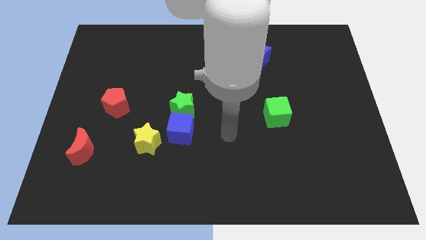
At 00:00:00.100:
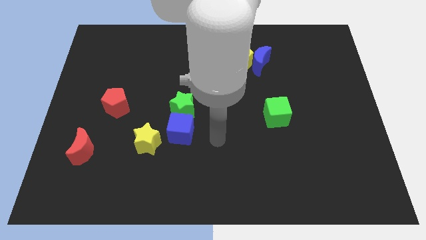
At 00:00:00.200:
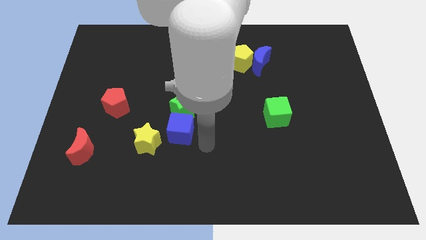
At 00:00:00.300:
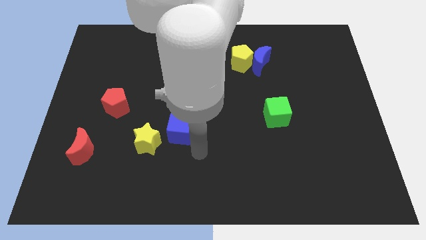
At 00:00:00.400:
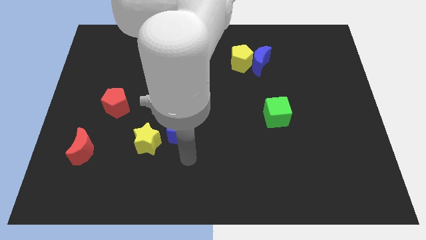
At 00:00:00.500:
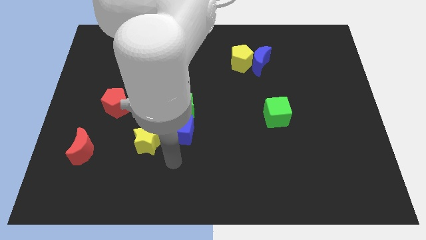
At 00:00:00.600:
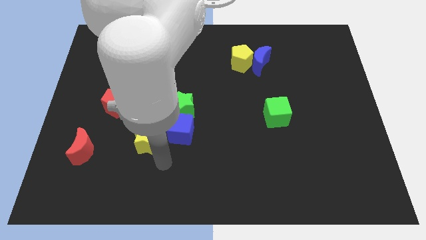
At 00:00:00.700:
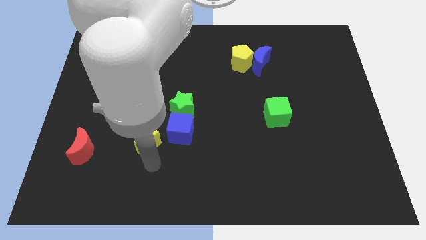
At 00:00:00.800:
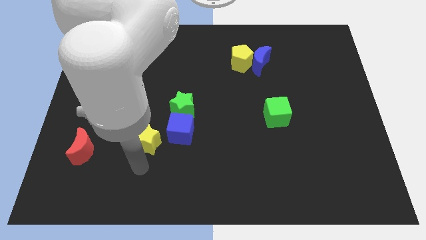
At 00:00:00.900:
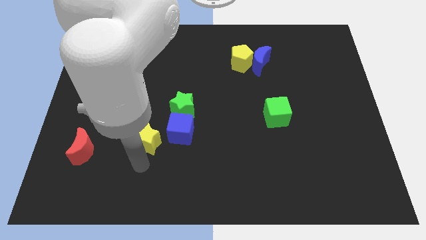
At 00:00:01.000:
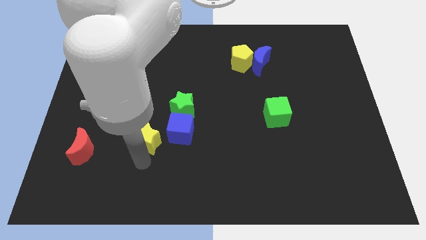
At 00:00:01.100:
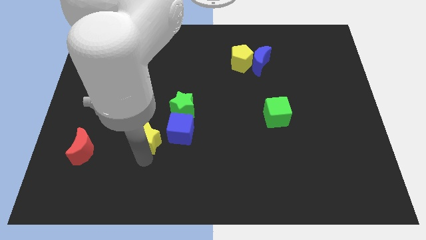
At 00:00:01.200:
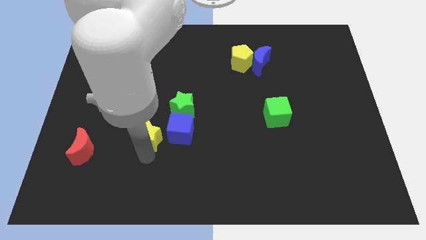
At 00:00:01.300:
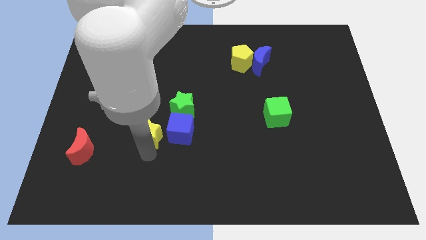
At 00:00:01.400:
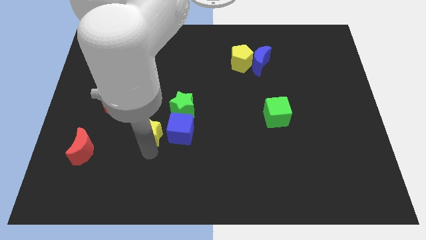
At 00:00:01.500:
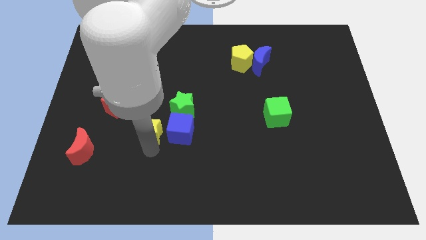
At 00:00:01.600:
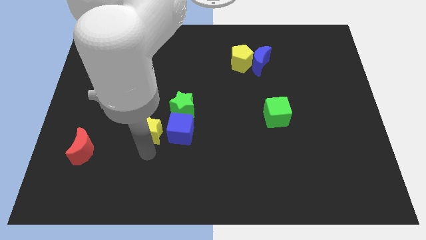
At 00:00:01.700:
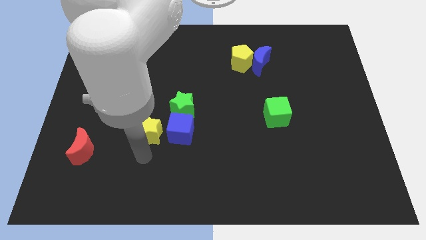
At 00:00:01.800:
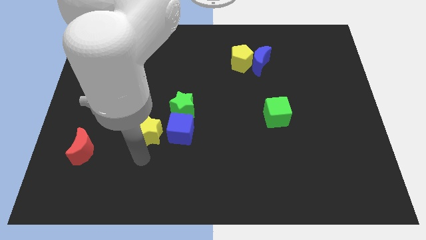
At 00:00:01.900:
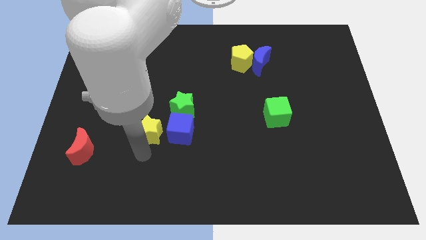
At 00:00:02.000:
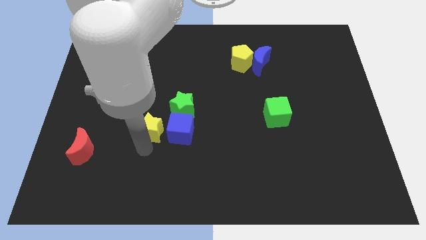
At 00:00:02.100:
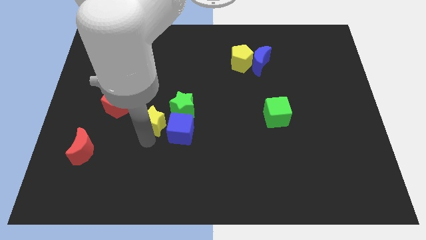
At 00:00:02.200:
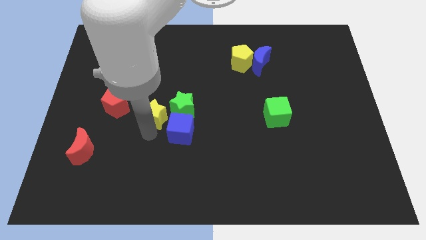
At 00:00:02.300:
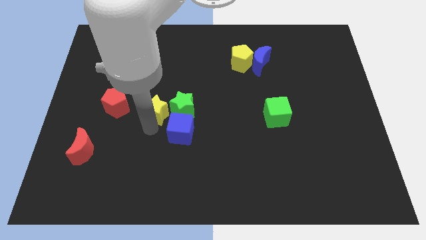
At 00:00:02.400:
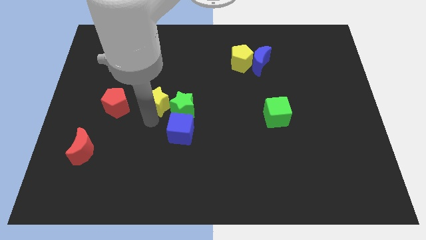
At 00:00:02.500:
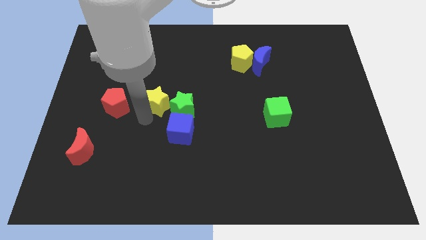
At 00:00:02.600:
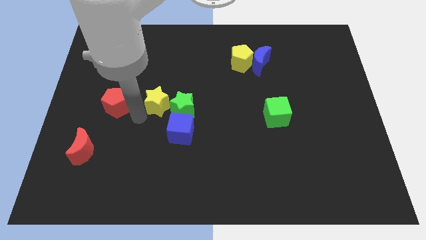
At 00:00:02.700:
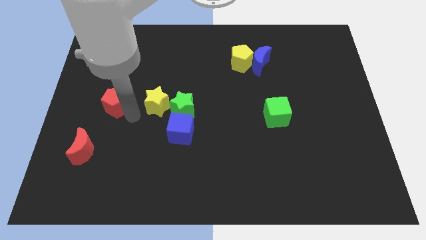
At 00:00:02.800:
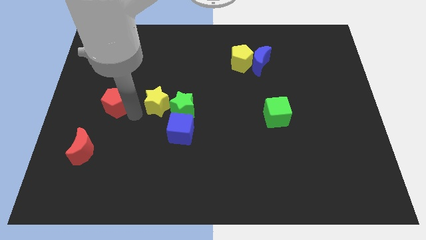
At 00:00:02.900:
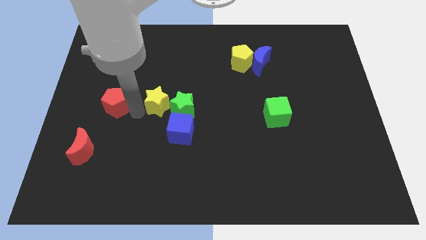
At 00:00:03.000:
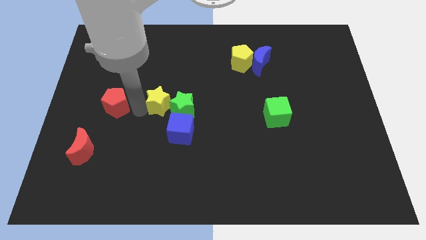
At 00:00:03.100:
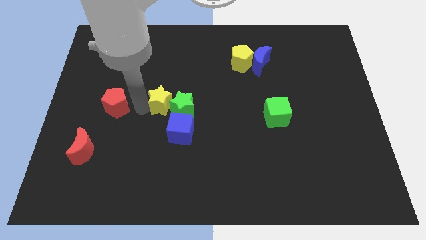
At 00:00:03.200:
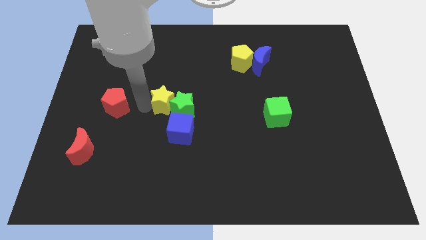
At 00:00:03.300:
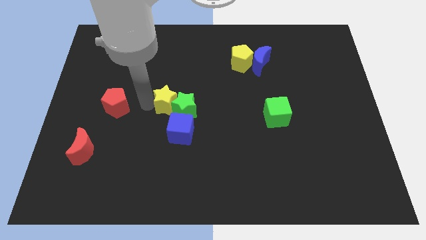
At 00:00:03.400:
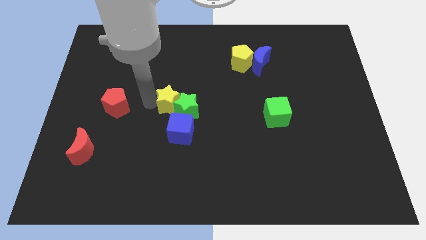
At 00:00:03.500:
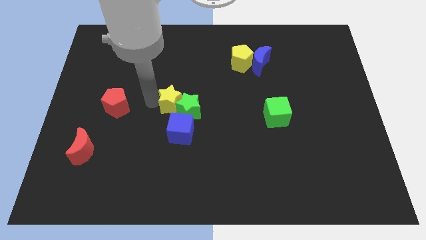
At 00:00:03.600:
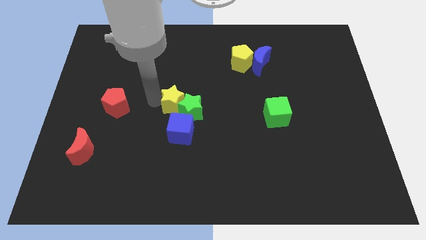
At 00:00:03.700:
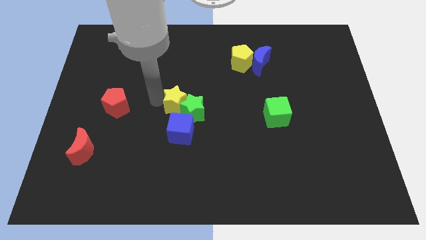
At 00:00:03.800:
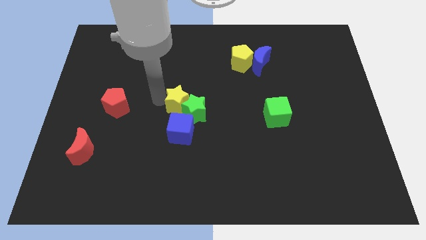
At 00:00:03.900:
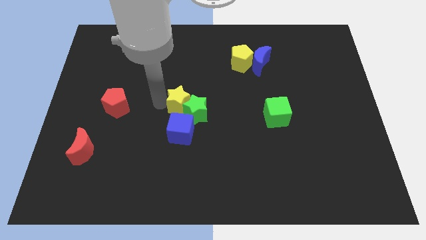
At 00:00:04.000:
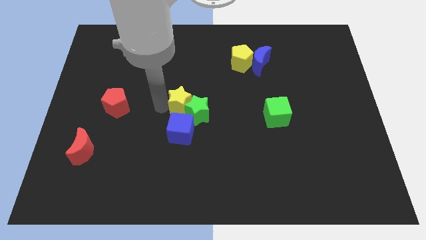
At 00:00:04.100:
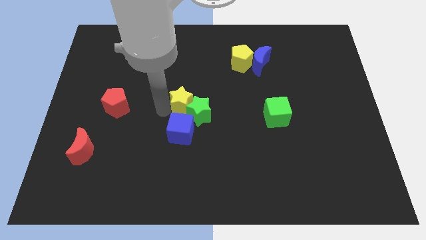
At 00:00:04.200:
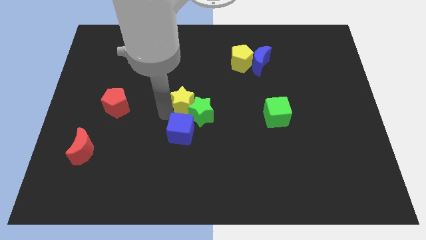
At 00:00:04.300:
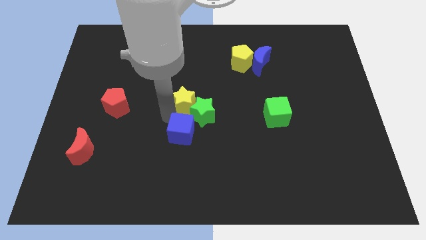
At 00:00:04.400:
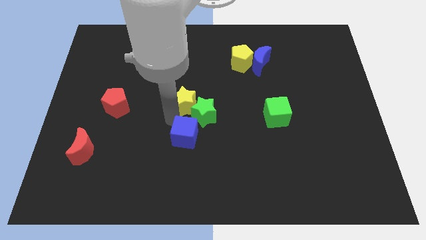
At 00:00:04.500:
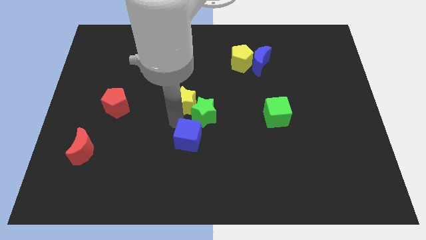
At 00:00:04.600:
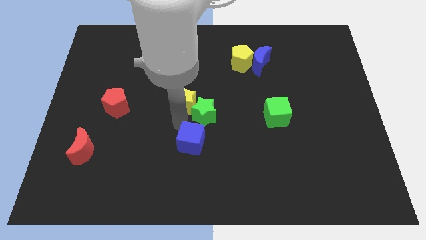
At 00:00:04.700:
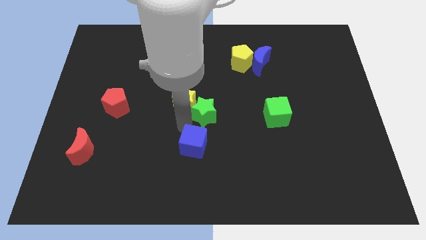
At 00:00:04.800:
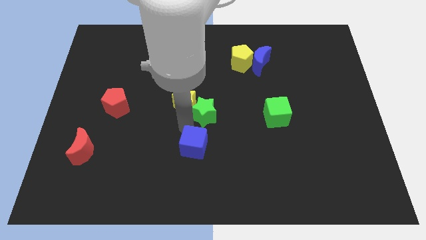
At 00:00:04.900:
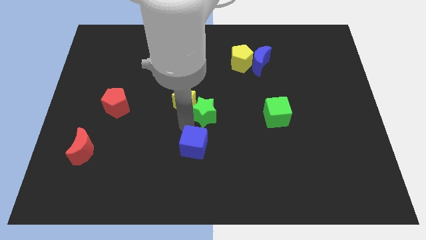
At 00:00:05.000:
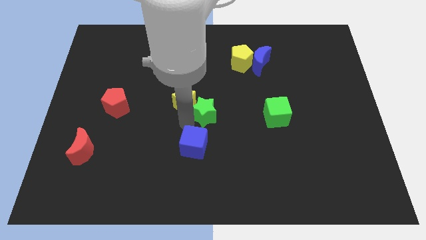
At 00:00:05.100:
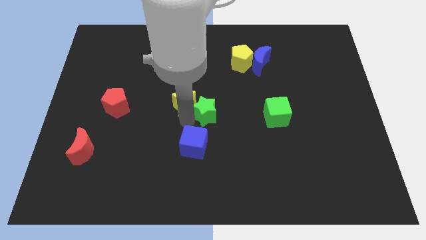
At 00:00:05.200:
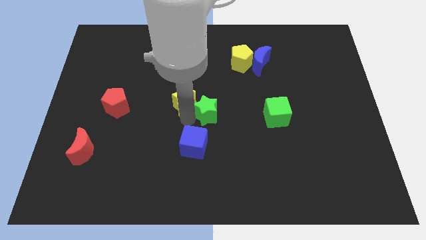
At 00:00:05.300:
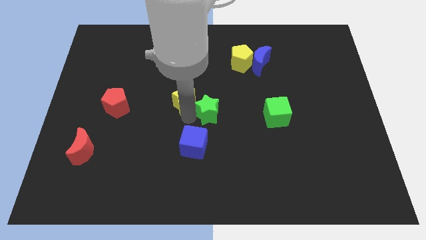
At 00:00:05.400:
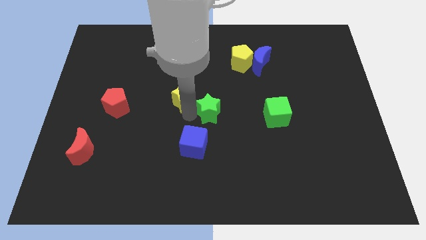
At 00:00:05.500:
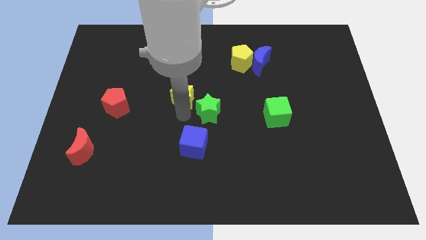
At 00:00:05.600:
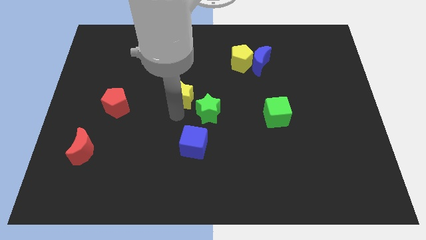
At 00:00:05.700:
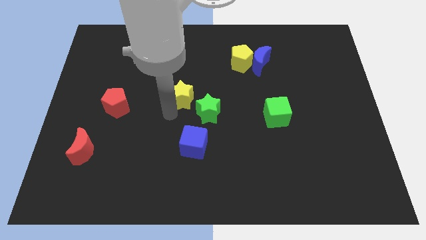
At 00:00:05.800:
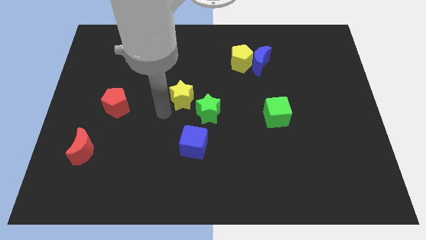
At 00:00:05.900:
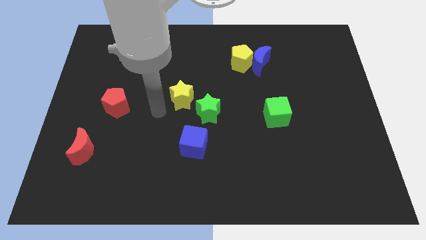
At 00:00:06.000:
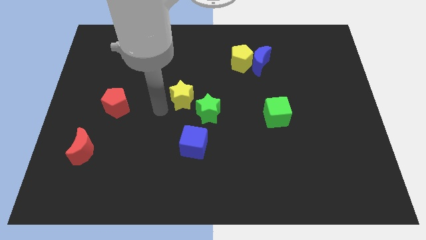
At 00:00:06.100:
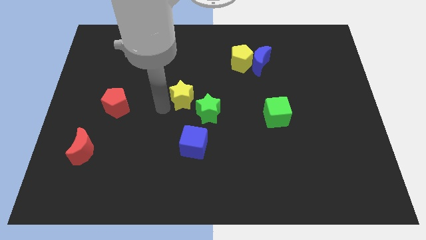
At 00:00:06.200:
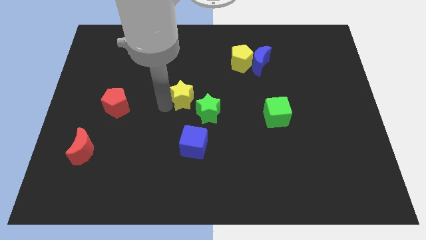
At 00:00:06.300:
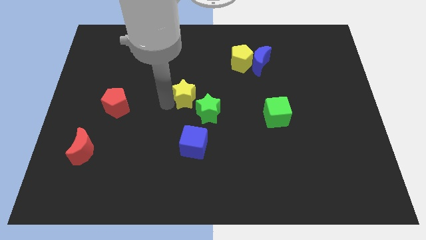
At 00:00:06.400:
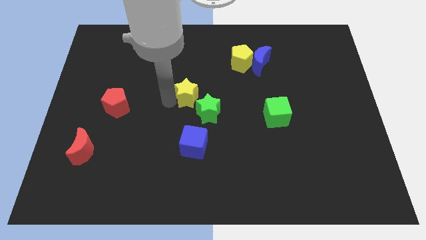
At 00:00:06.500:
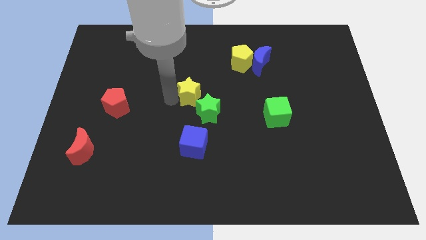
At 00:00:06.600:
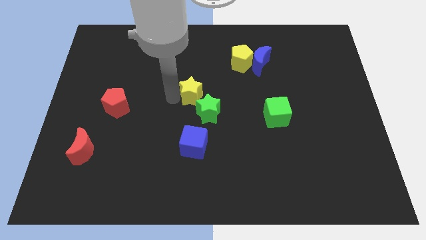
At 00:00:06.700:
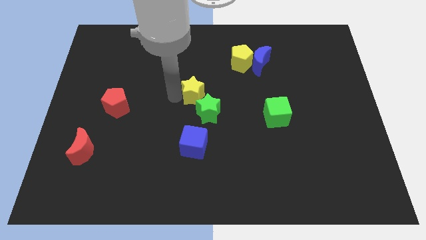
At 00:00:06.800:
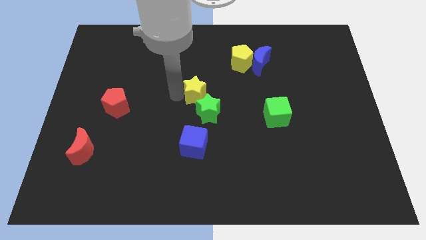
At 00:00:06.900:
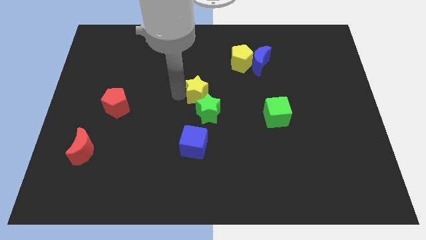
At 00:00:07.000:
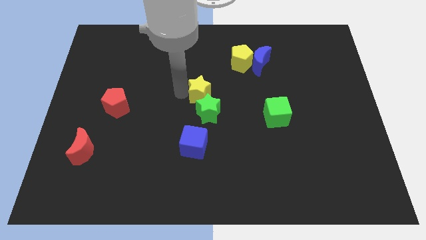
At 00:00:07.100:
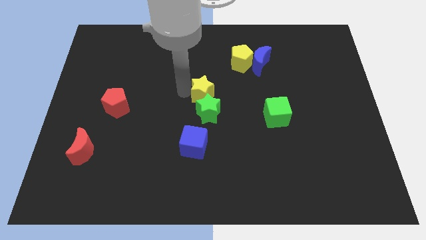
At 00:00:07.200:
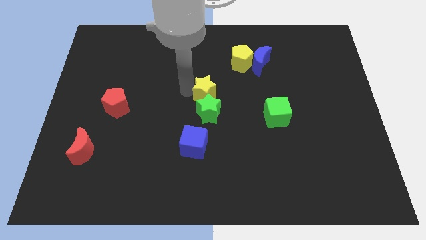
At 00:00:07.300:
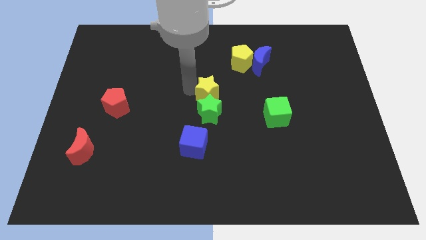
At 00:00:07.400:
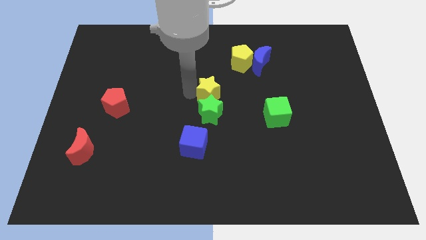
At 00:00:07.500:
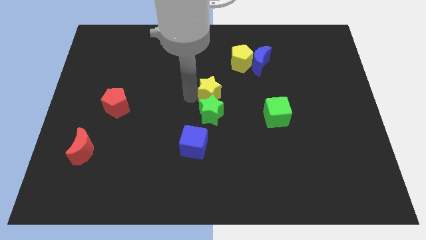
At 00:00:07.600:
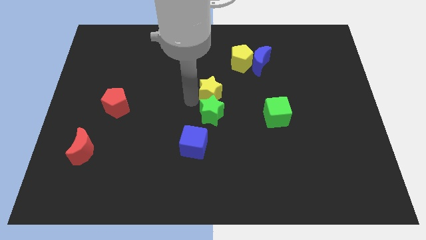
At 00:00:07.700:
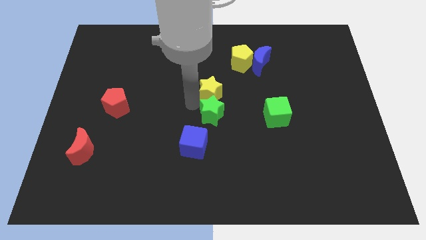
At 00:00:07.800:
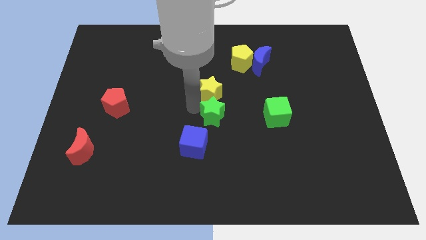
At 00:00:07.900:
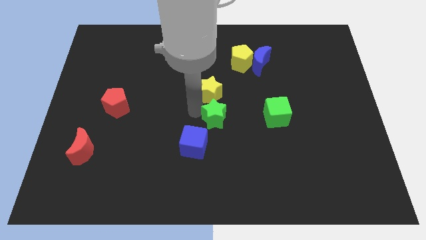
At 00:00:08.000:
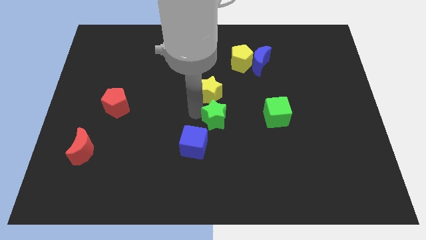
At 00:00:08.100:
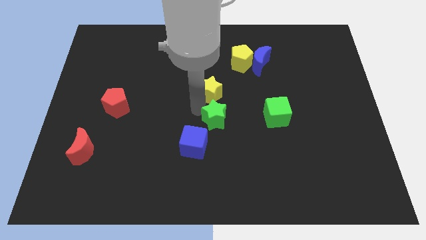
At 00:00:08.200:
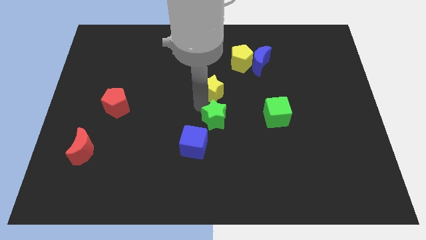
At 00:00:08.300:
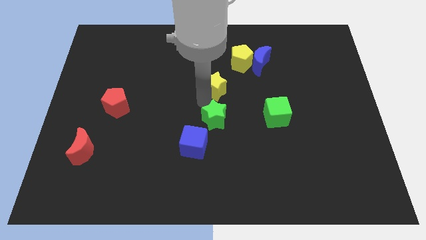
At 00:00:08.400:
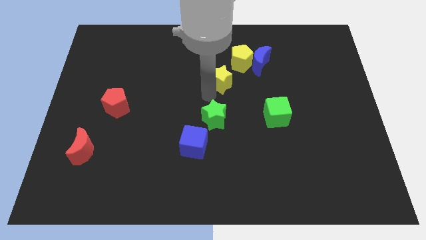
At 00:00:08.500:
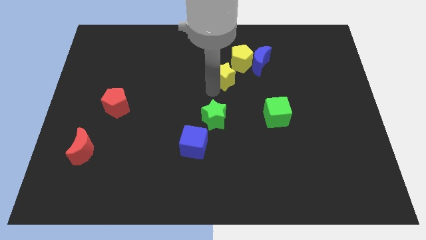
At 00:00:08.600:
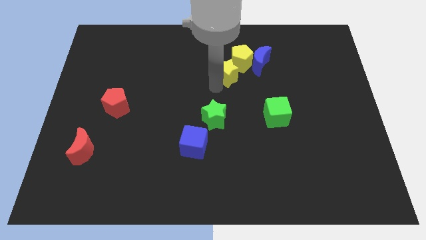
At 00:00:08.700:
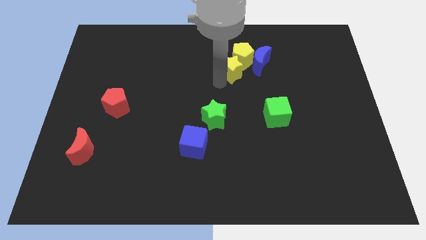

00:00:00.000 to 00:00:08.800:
slide the yellow star towards the yellow pentagon
